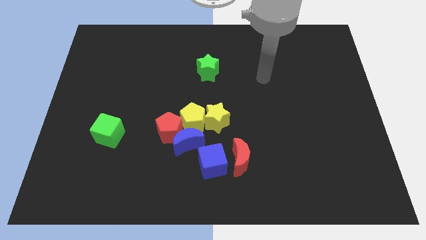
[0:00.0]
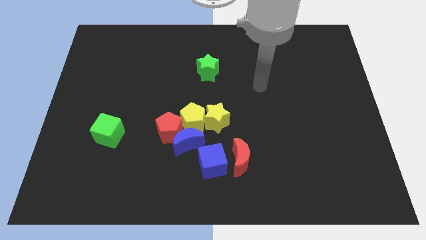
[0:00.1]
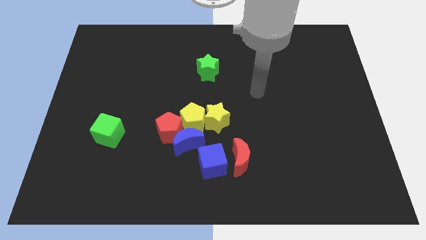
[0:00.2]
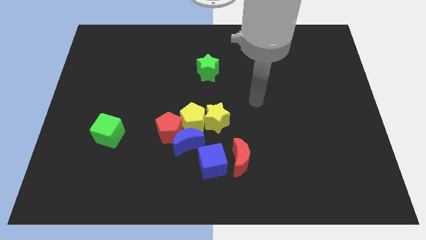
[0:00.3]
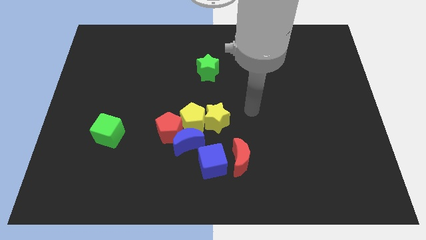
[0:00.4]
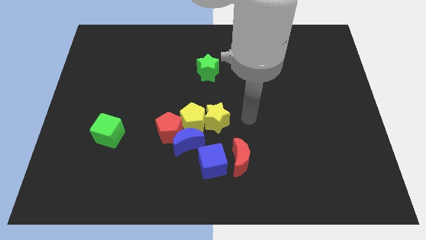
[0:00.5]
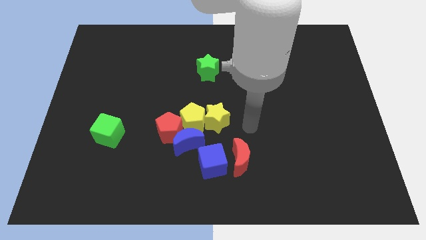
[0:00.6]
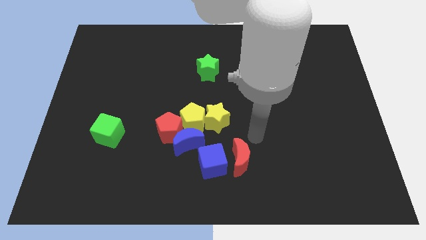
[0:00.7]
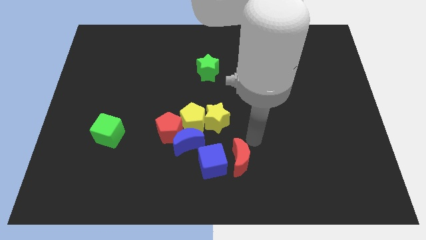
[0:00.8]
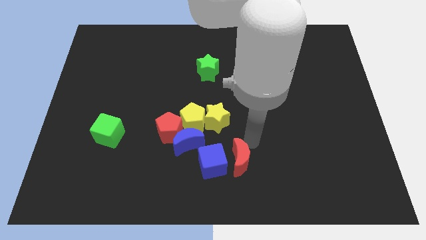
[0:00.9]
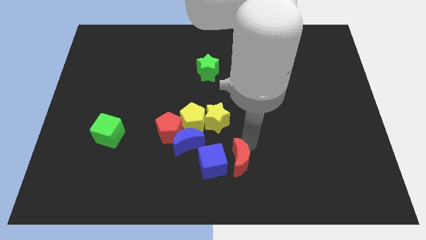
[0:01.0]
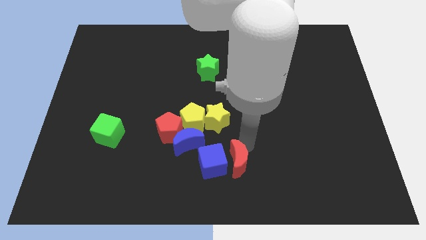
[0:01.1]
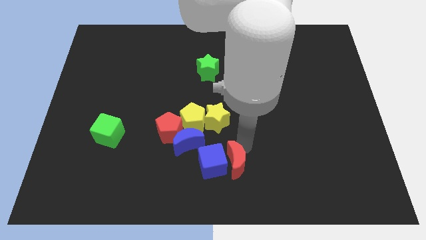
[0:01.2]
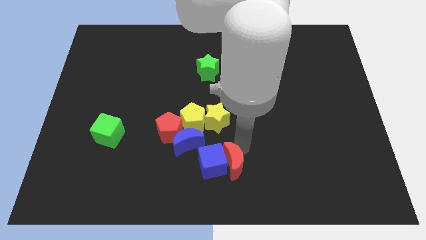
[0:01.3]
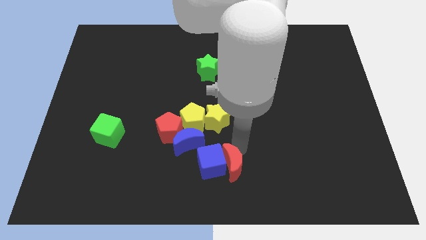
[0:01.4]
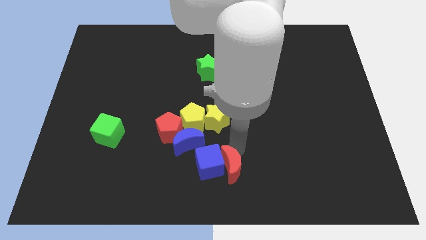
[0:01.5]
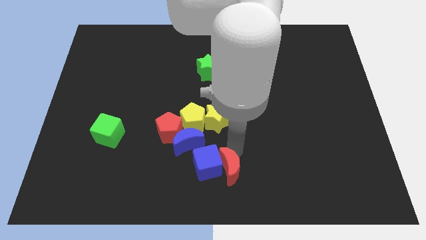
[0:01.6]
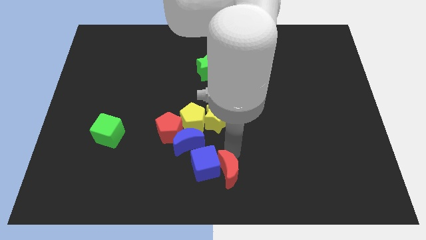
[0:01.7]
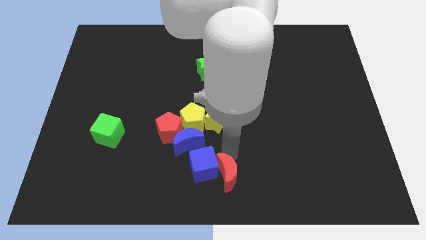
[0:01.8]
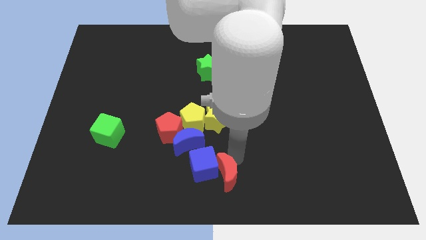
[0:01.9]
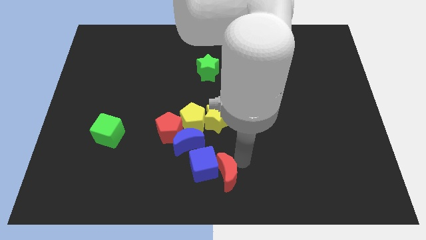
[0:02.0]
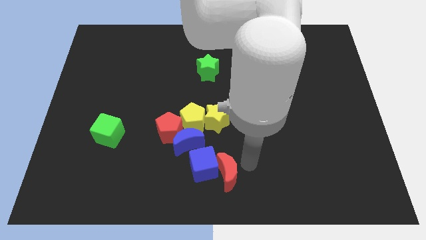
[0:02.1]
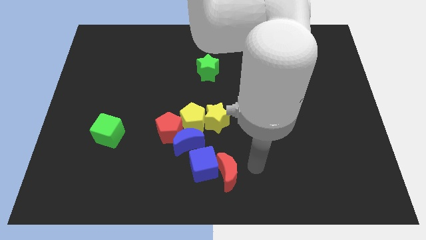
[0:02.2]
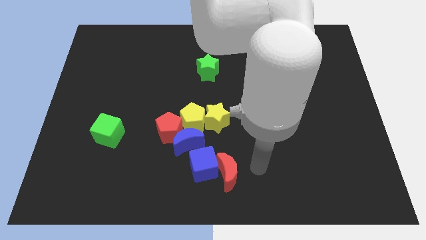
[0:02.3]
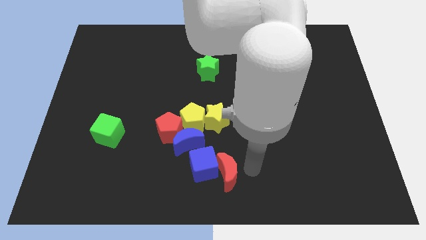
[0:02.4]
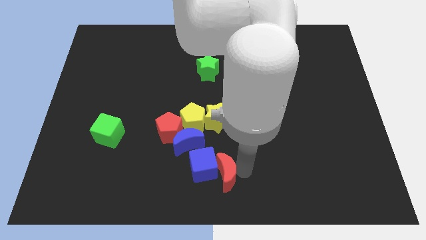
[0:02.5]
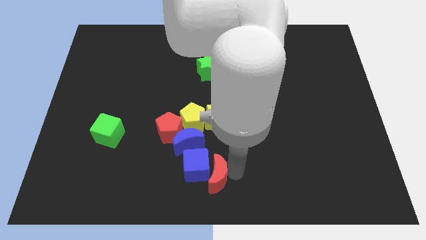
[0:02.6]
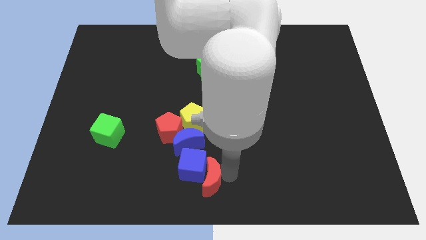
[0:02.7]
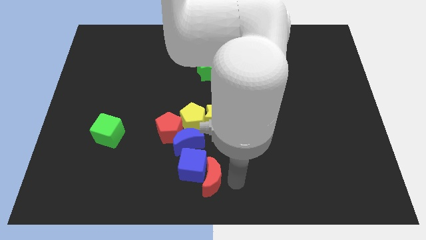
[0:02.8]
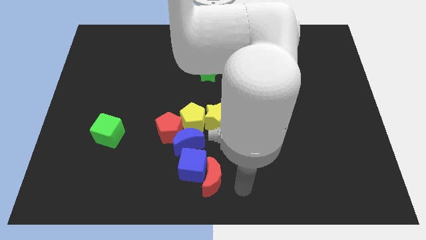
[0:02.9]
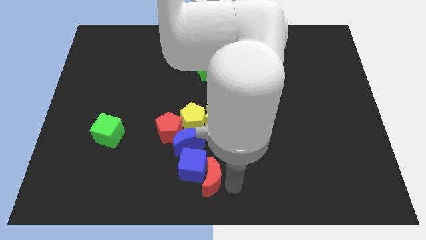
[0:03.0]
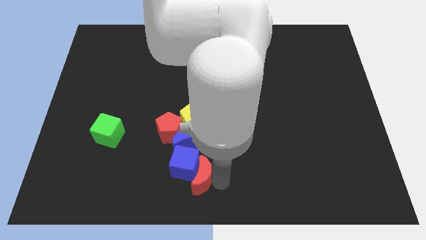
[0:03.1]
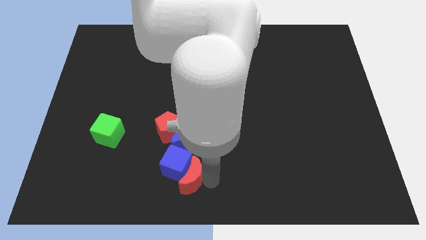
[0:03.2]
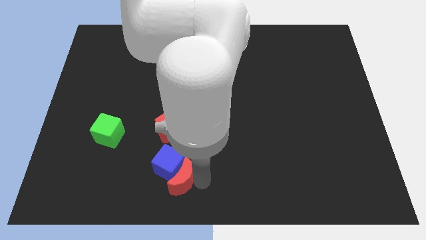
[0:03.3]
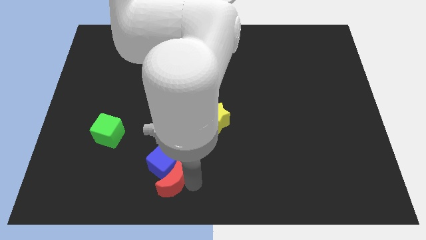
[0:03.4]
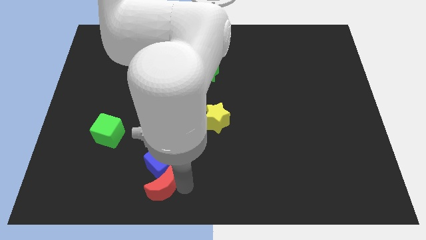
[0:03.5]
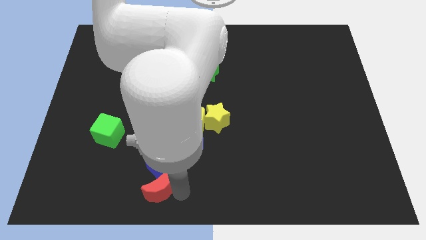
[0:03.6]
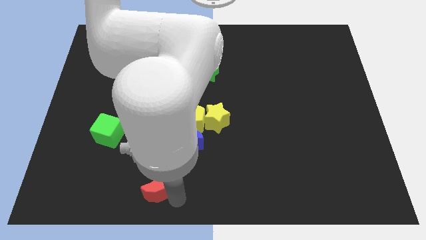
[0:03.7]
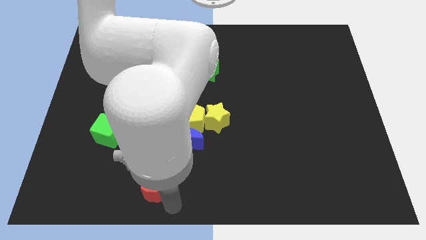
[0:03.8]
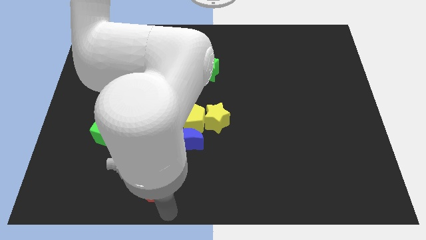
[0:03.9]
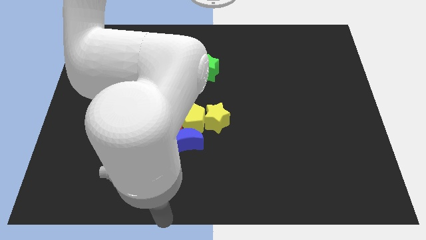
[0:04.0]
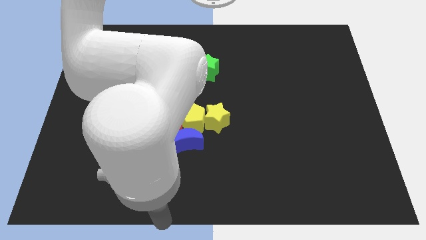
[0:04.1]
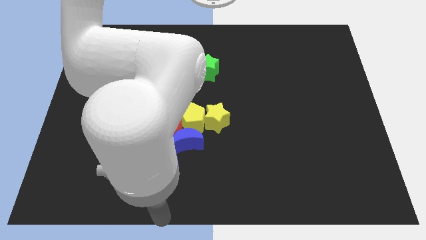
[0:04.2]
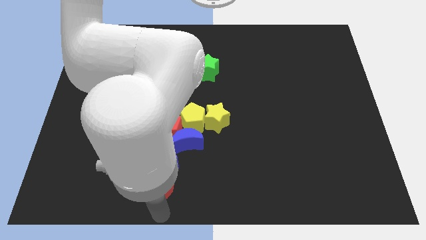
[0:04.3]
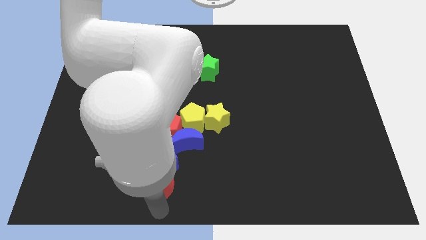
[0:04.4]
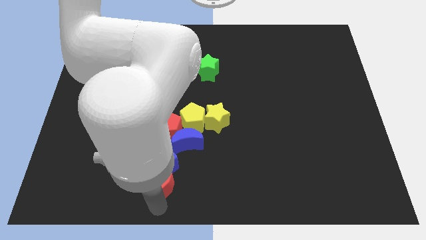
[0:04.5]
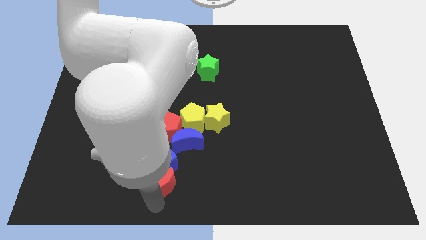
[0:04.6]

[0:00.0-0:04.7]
slide the red moon diagonally down and to the left of the blue moon

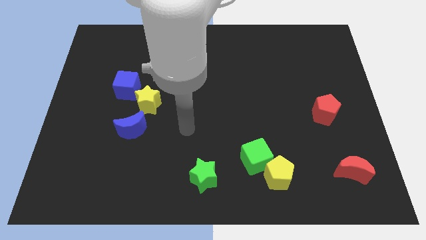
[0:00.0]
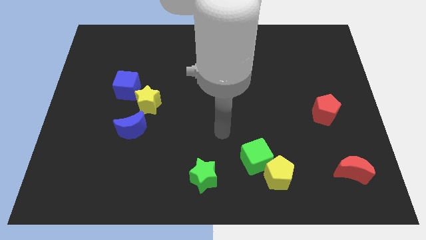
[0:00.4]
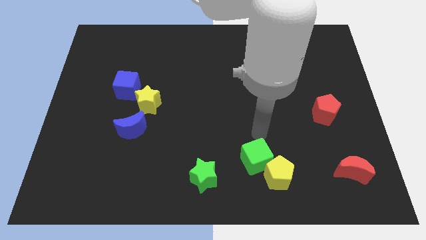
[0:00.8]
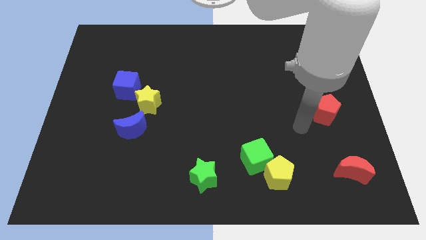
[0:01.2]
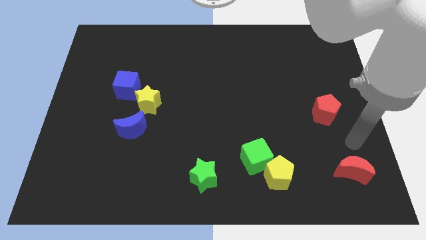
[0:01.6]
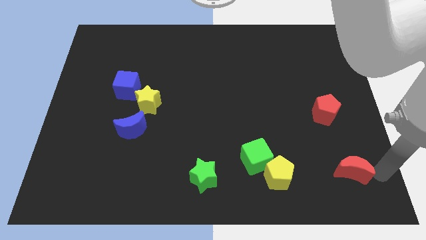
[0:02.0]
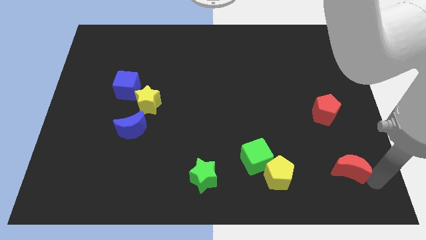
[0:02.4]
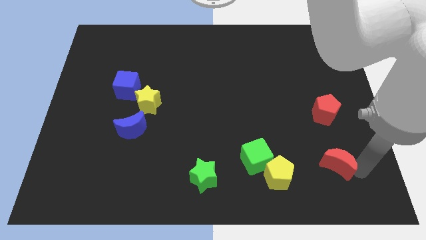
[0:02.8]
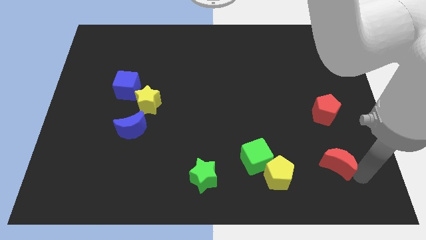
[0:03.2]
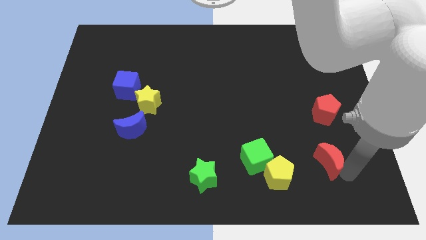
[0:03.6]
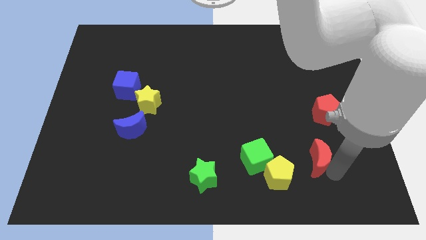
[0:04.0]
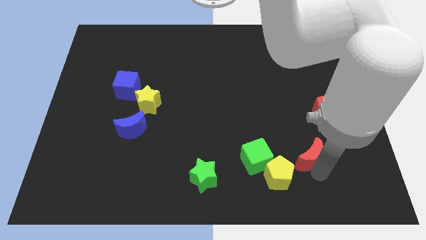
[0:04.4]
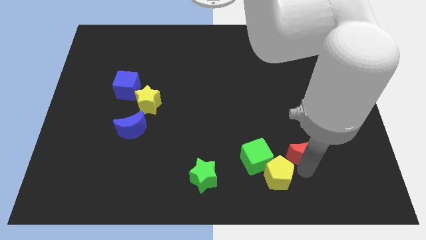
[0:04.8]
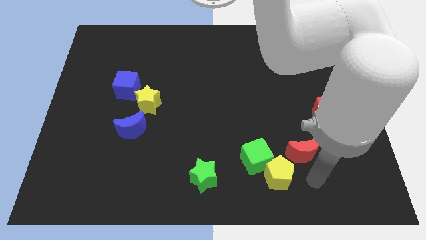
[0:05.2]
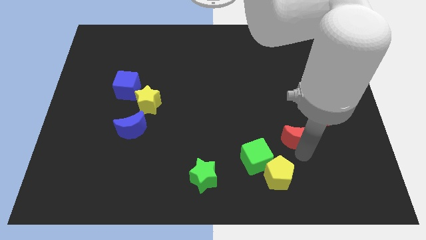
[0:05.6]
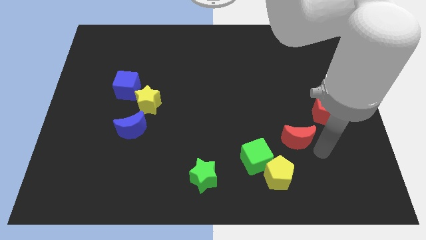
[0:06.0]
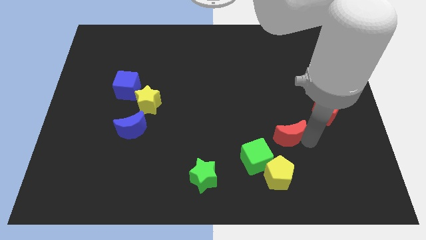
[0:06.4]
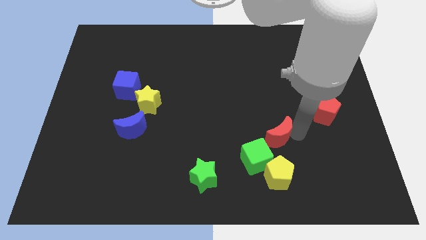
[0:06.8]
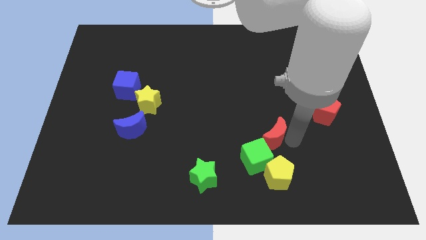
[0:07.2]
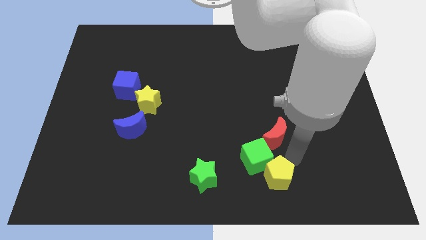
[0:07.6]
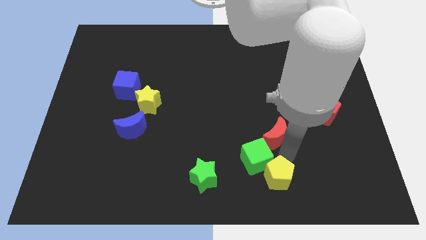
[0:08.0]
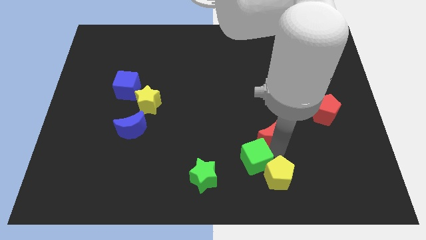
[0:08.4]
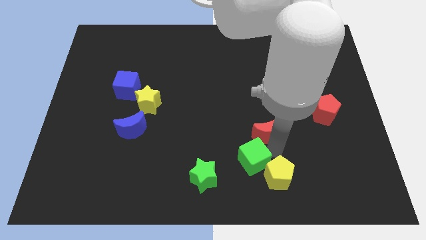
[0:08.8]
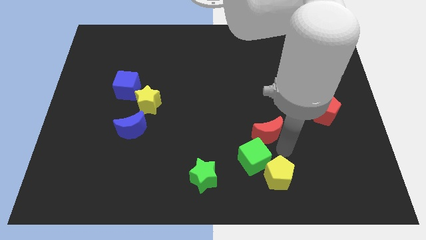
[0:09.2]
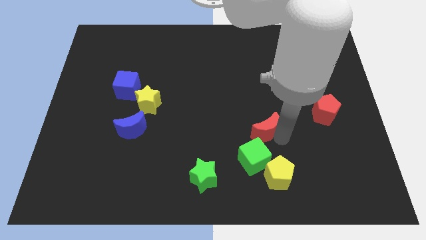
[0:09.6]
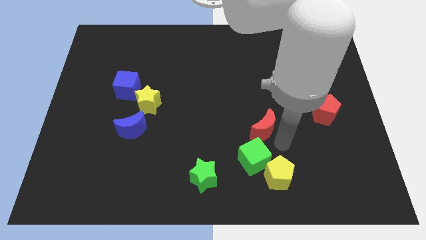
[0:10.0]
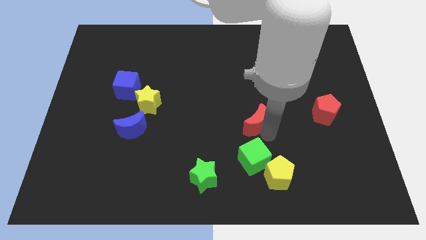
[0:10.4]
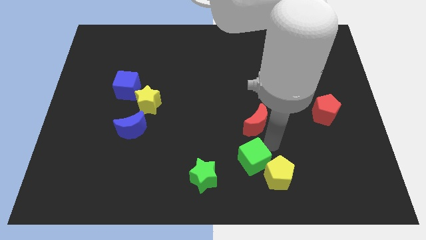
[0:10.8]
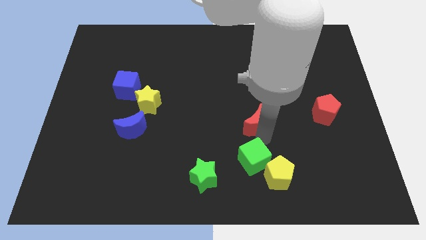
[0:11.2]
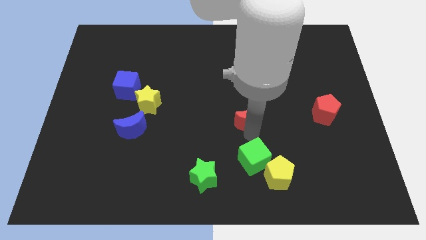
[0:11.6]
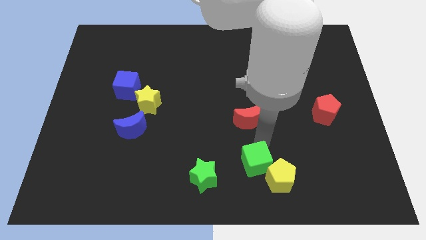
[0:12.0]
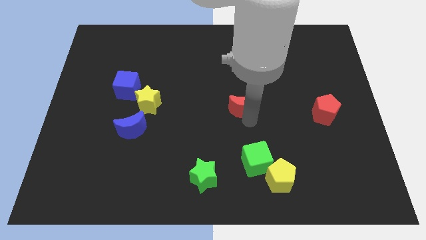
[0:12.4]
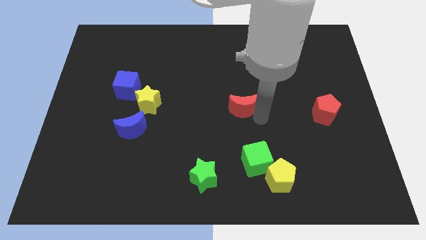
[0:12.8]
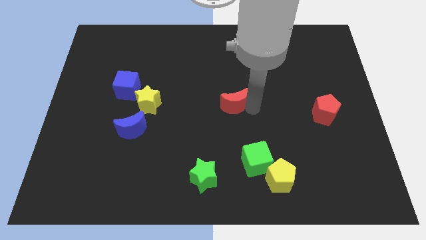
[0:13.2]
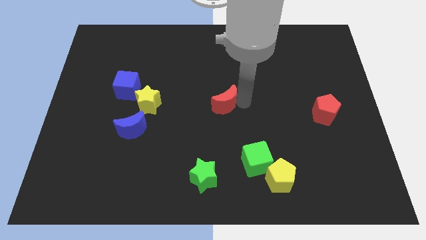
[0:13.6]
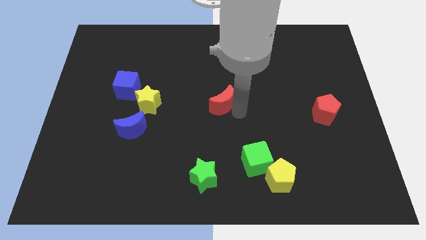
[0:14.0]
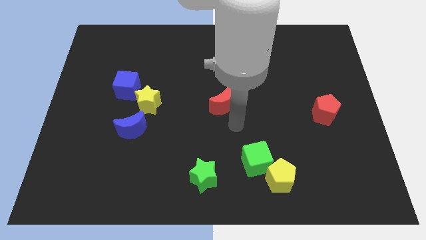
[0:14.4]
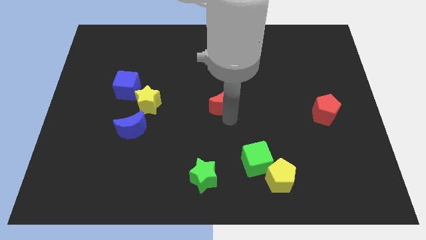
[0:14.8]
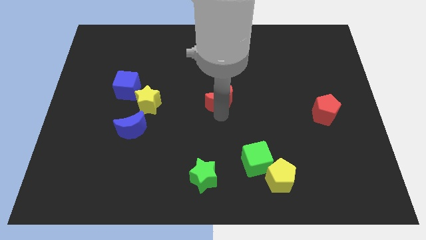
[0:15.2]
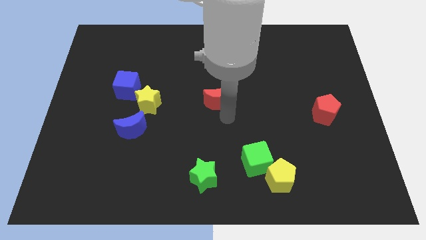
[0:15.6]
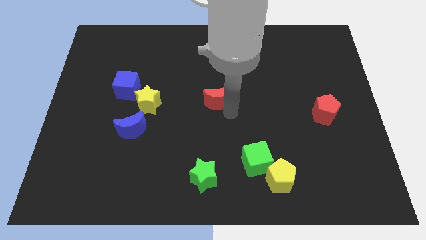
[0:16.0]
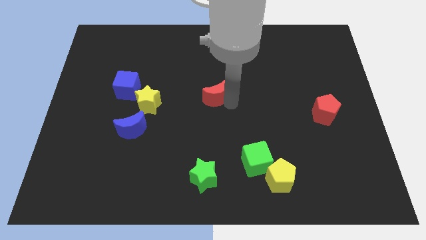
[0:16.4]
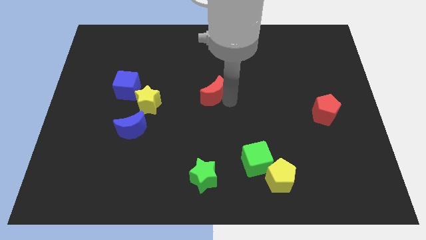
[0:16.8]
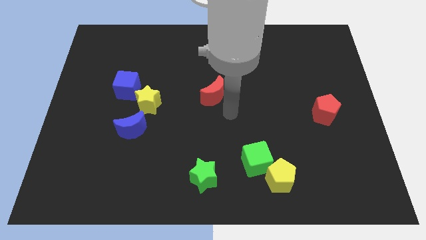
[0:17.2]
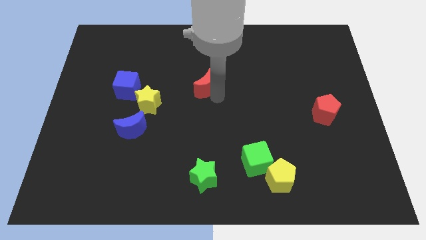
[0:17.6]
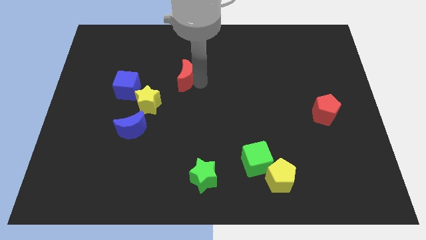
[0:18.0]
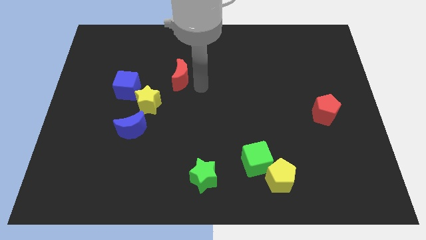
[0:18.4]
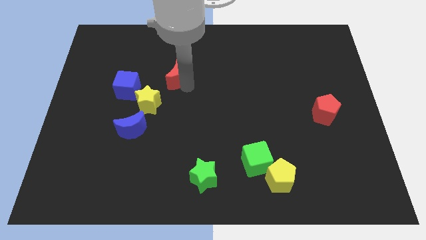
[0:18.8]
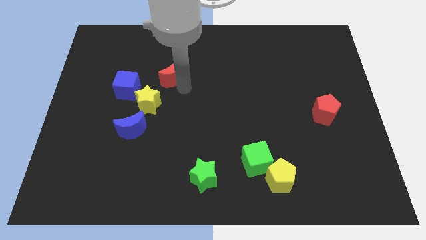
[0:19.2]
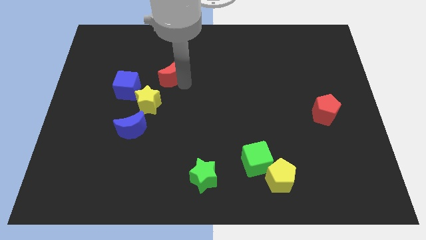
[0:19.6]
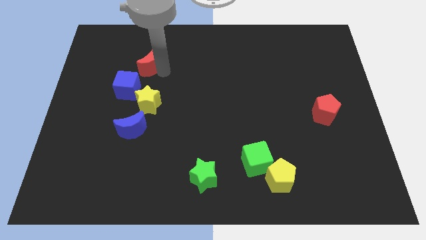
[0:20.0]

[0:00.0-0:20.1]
push the red moon above the blue cube
